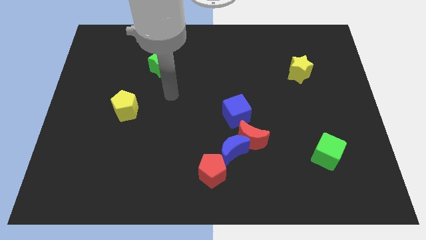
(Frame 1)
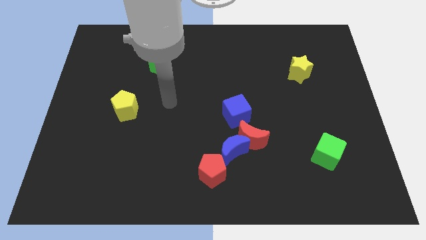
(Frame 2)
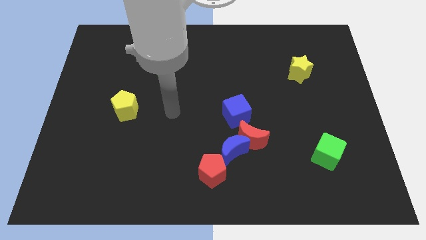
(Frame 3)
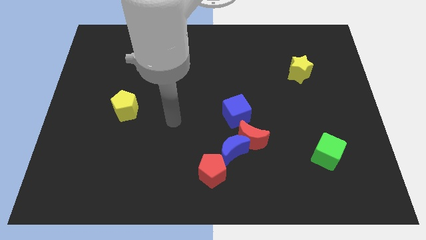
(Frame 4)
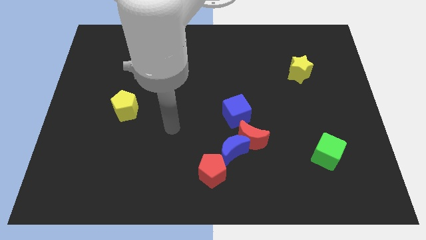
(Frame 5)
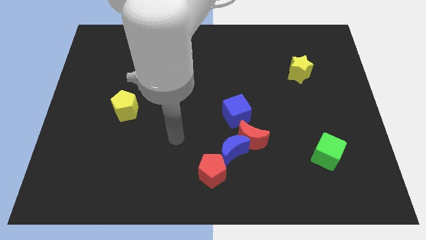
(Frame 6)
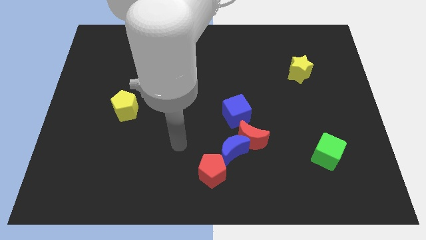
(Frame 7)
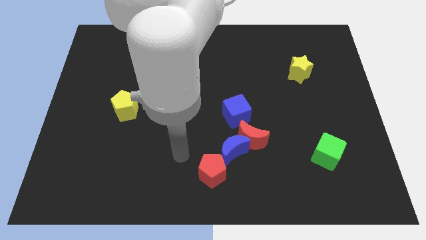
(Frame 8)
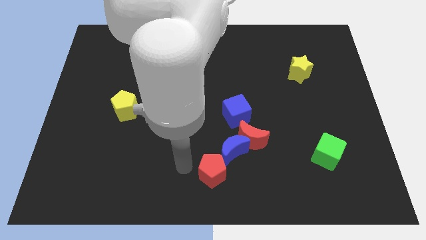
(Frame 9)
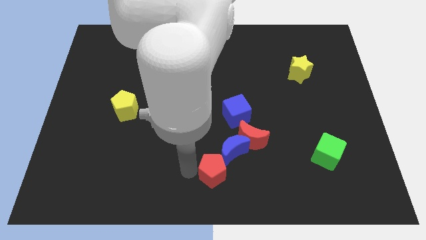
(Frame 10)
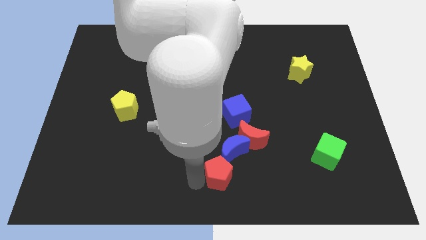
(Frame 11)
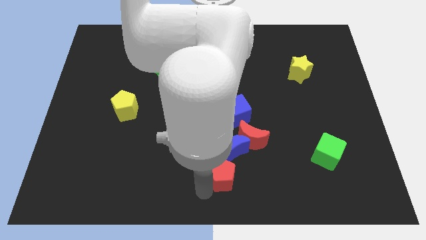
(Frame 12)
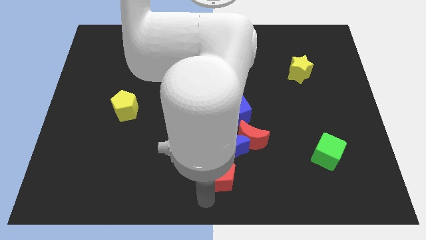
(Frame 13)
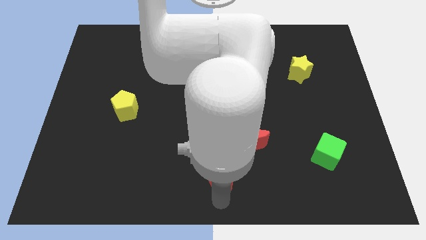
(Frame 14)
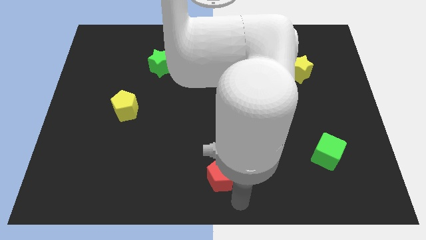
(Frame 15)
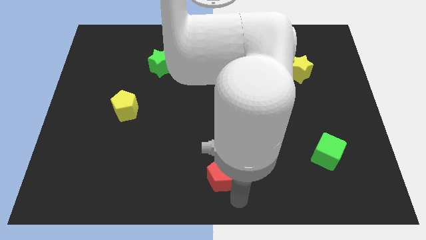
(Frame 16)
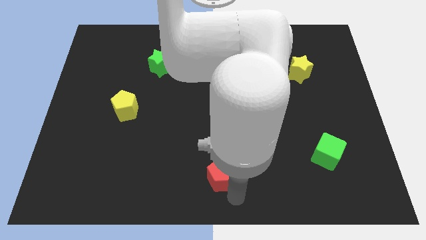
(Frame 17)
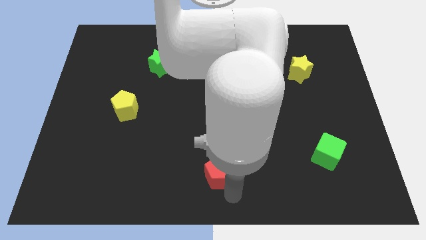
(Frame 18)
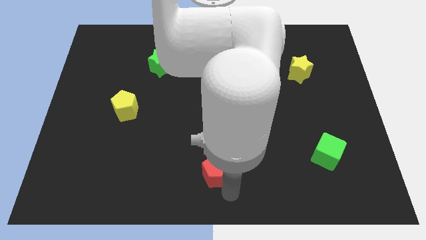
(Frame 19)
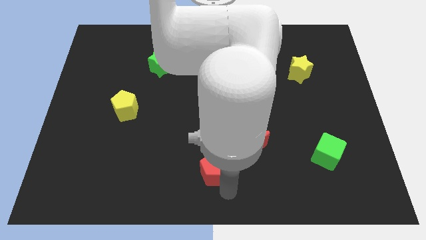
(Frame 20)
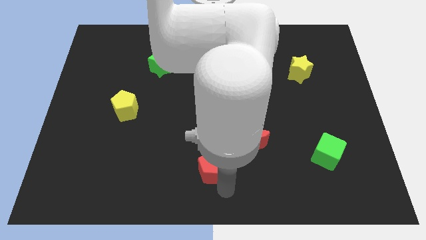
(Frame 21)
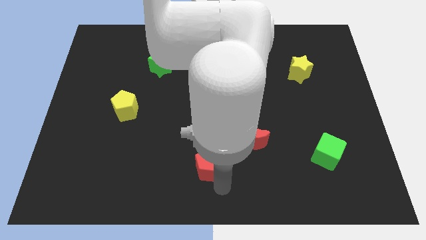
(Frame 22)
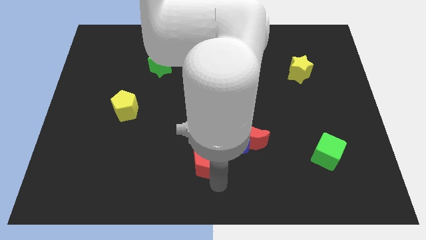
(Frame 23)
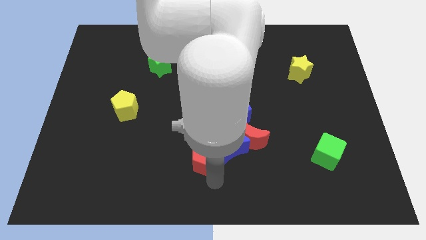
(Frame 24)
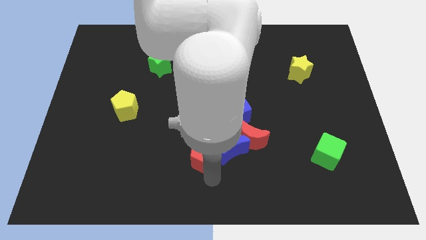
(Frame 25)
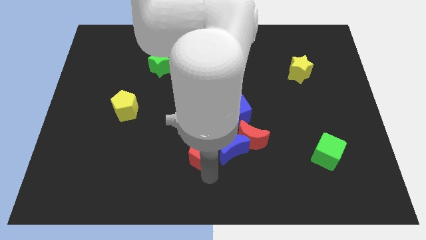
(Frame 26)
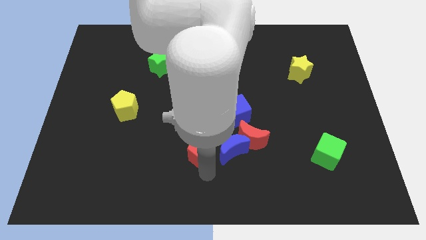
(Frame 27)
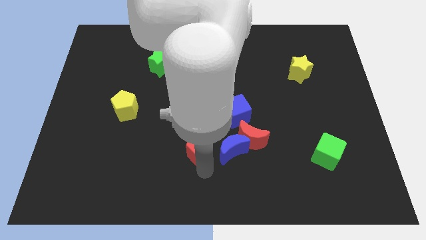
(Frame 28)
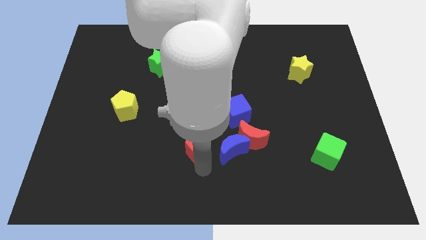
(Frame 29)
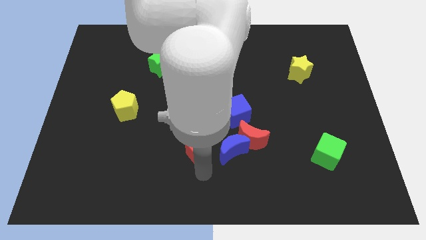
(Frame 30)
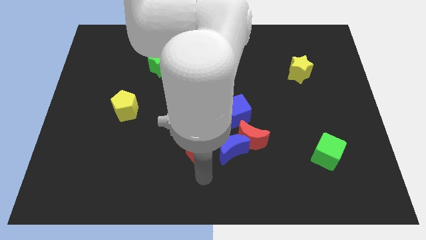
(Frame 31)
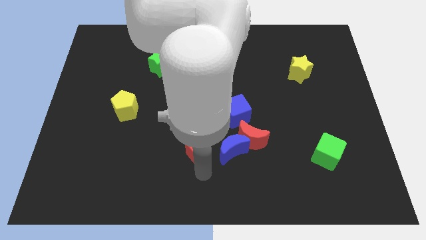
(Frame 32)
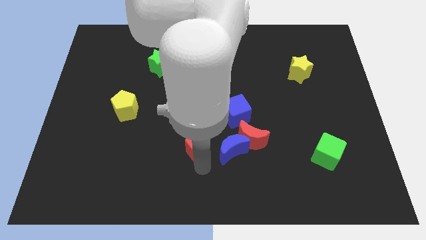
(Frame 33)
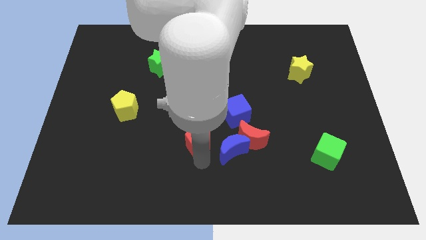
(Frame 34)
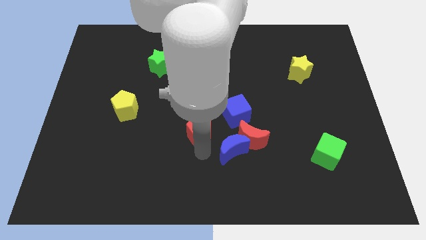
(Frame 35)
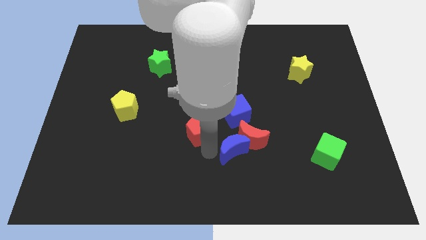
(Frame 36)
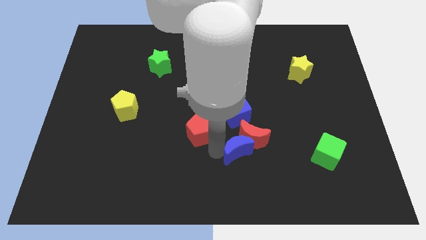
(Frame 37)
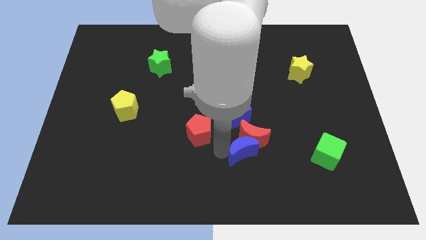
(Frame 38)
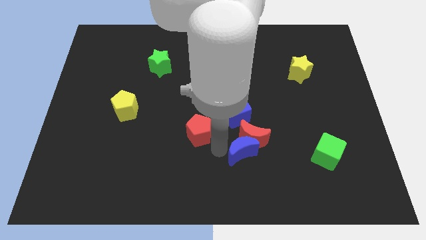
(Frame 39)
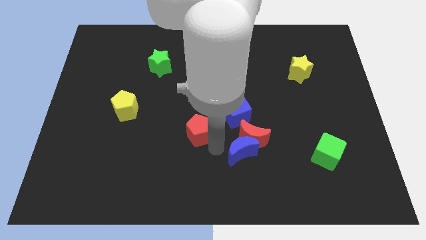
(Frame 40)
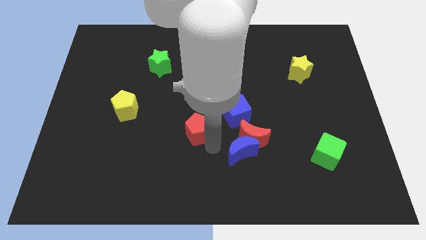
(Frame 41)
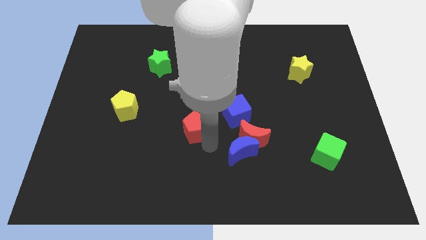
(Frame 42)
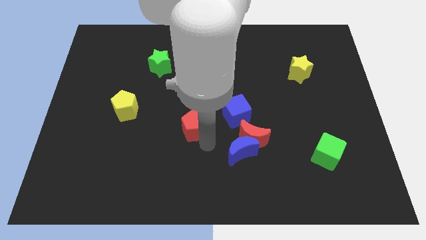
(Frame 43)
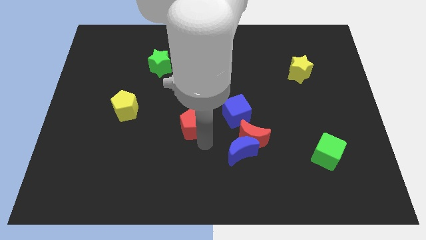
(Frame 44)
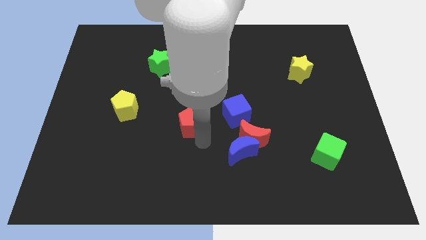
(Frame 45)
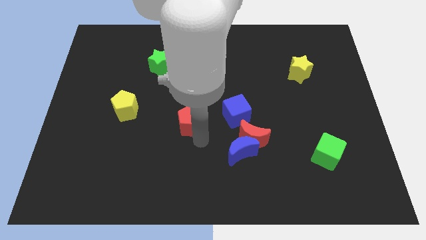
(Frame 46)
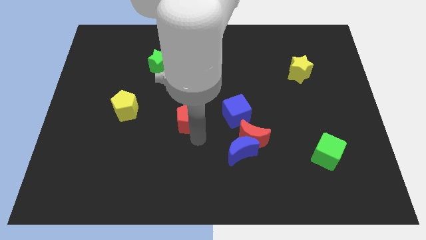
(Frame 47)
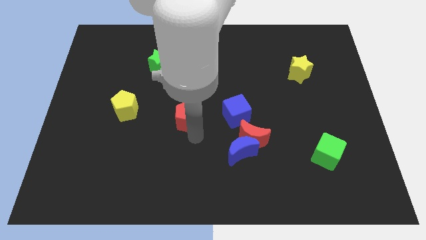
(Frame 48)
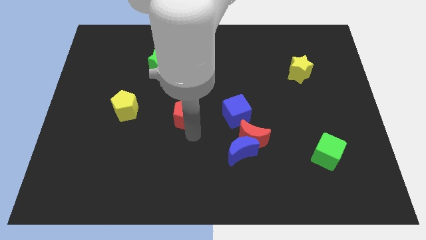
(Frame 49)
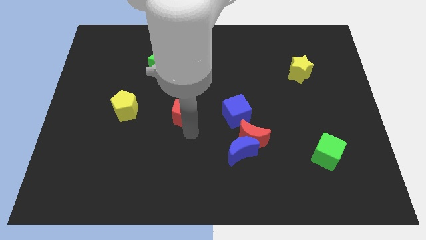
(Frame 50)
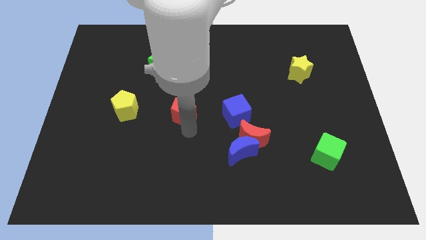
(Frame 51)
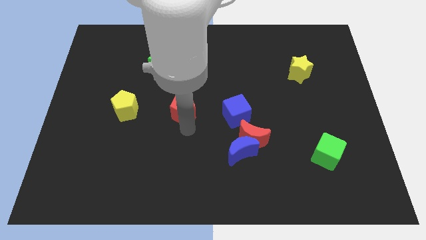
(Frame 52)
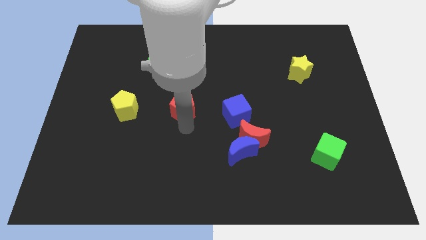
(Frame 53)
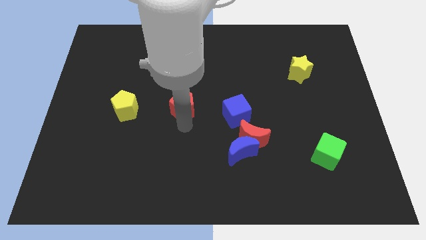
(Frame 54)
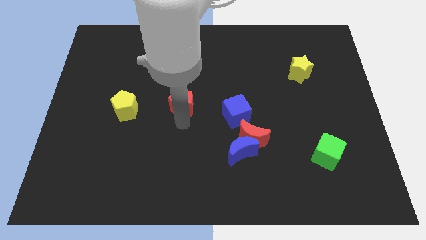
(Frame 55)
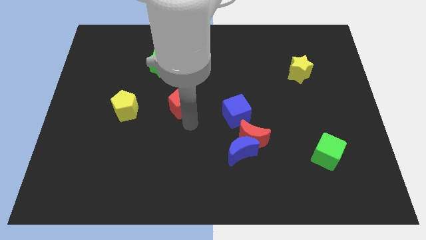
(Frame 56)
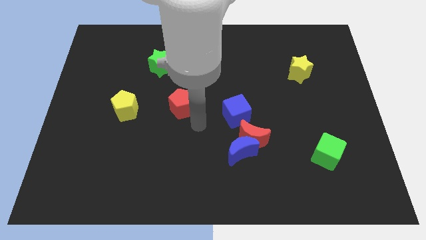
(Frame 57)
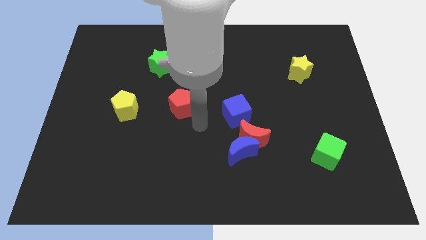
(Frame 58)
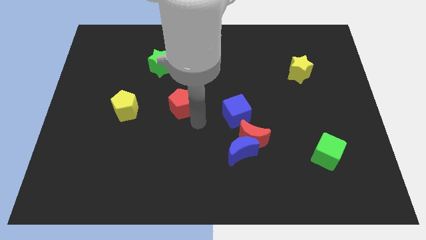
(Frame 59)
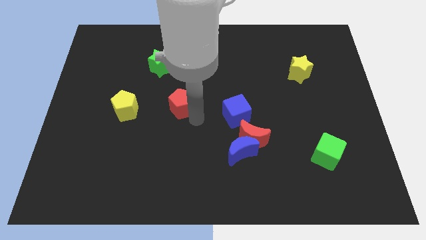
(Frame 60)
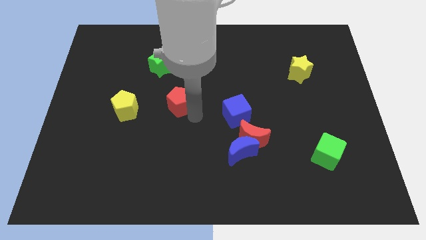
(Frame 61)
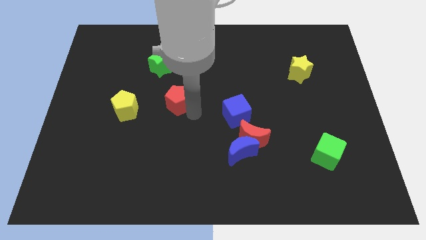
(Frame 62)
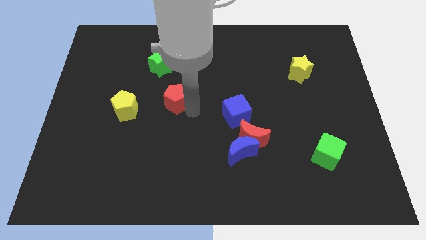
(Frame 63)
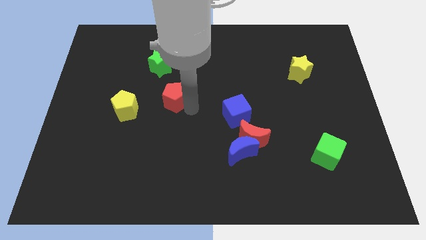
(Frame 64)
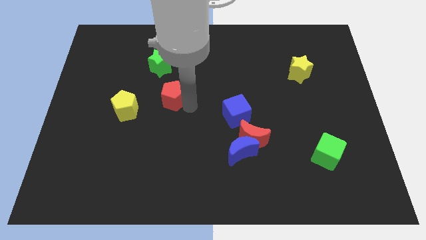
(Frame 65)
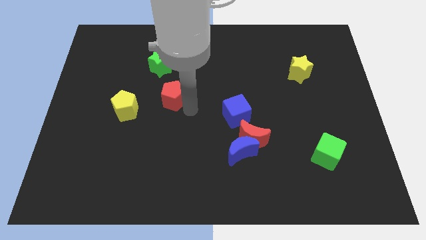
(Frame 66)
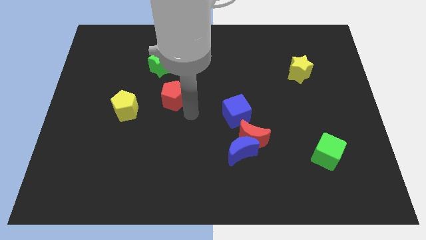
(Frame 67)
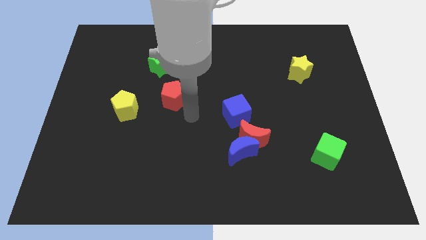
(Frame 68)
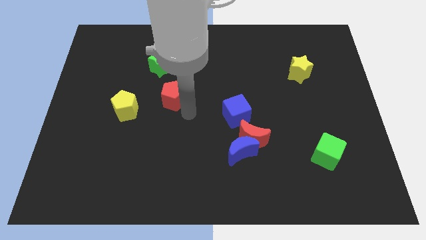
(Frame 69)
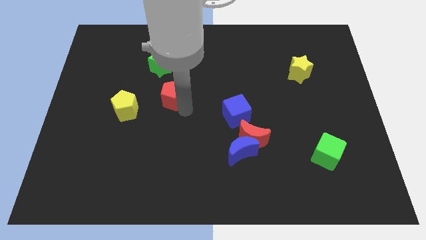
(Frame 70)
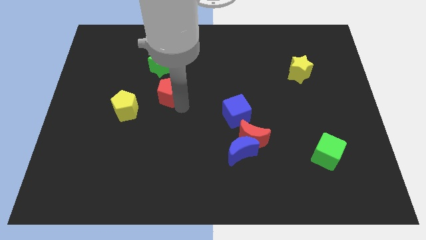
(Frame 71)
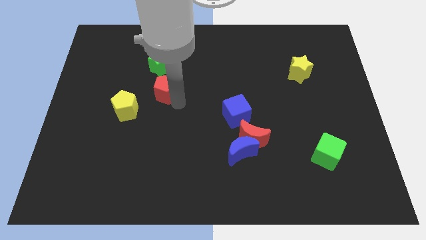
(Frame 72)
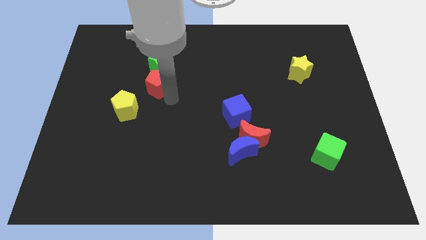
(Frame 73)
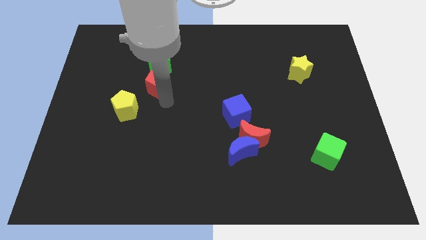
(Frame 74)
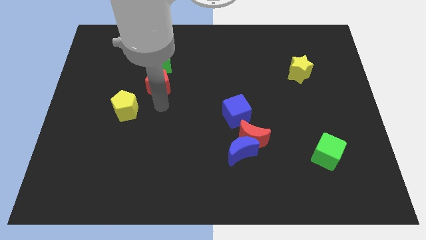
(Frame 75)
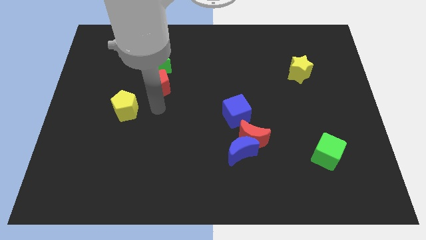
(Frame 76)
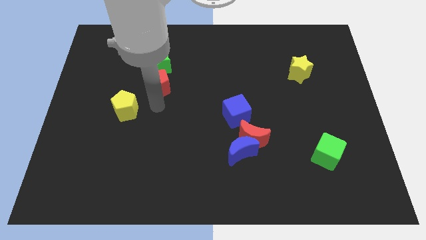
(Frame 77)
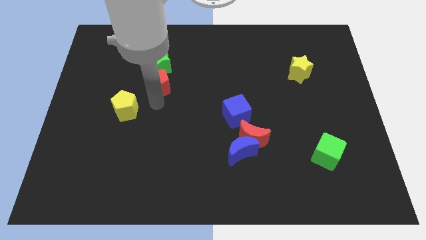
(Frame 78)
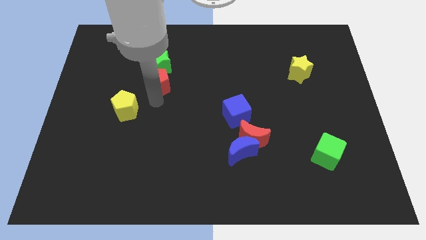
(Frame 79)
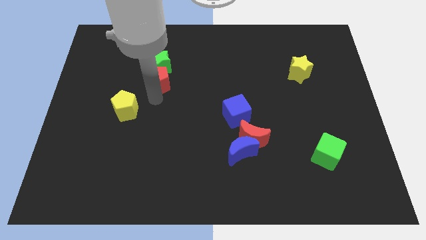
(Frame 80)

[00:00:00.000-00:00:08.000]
move the red pentagon towards the green star

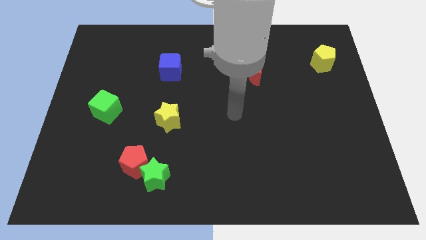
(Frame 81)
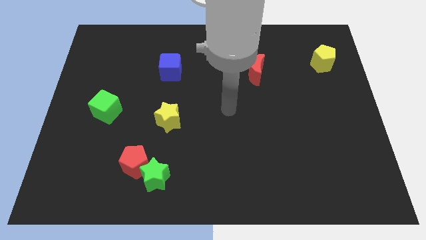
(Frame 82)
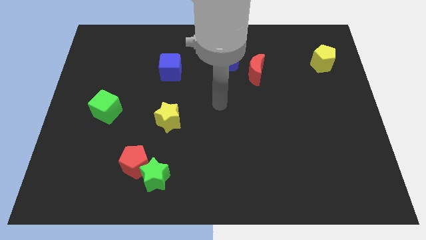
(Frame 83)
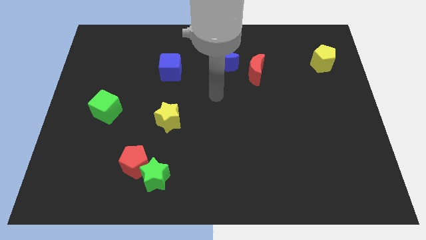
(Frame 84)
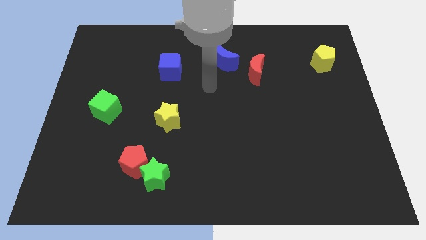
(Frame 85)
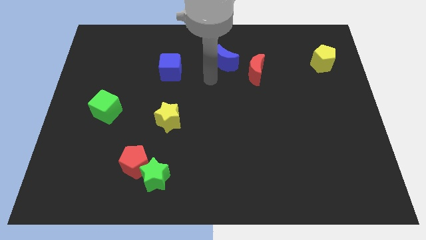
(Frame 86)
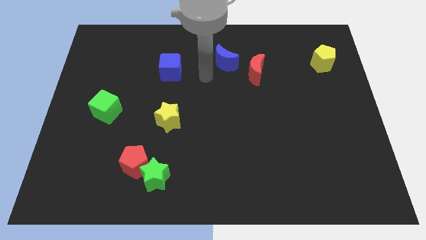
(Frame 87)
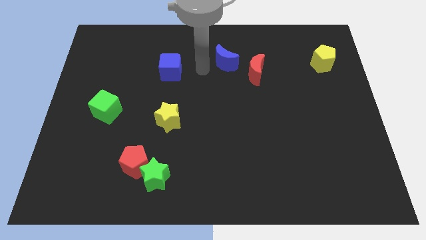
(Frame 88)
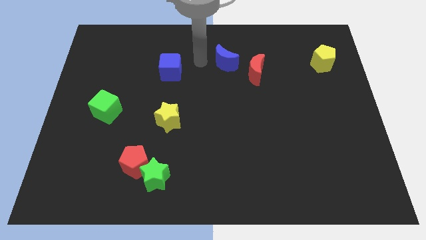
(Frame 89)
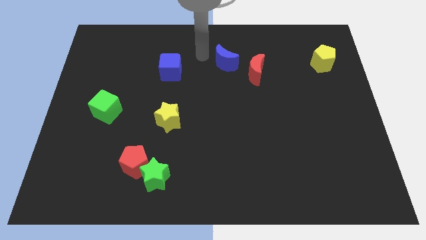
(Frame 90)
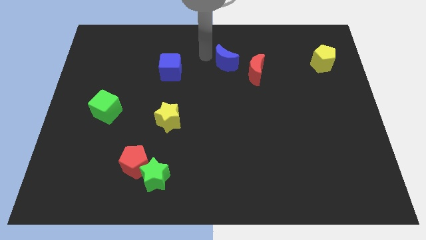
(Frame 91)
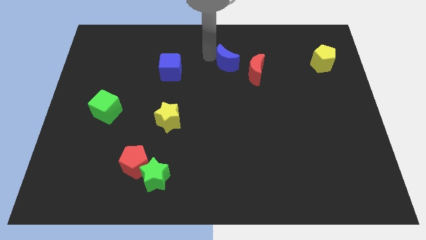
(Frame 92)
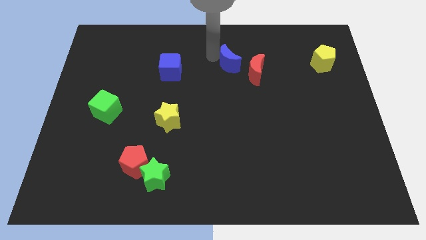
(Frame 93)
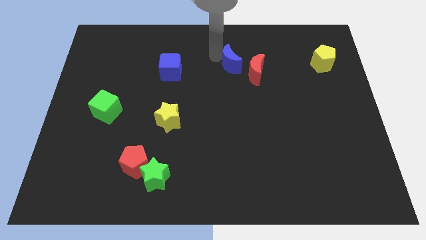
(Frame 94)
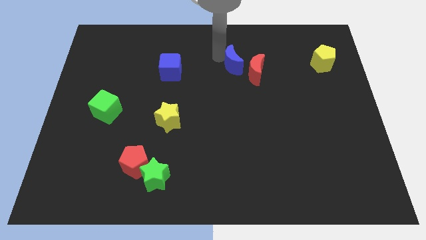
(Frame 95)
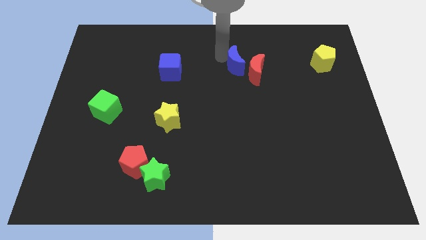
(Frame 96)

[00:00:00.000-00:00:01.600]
push the blue moon close to the red moon
